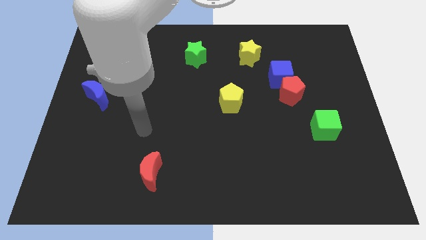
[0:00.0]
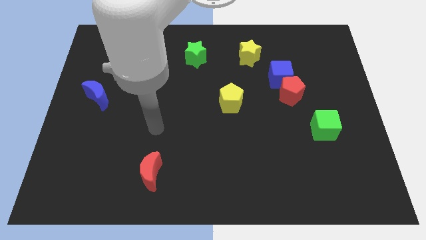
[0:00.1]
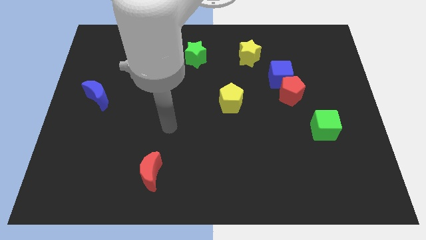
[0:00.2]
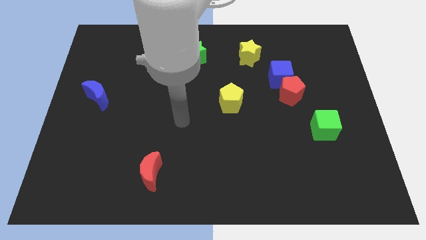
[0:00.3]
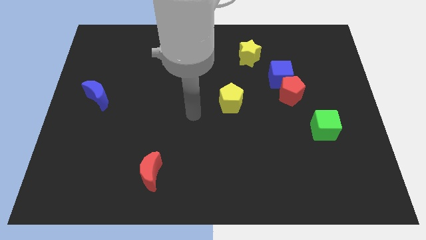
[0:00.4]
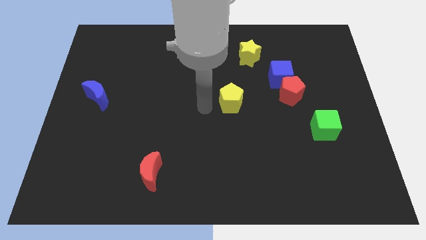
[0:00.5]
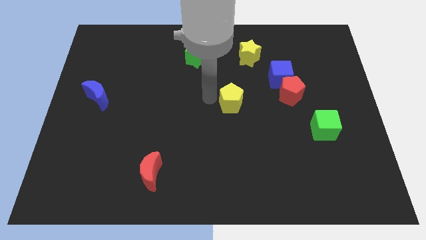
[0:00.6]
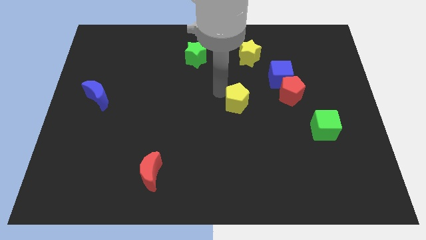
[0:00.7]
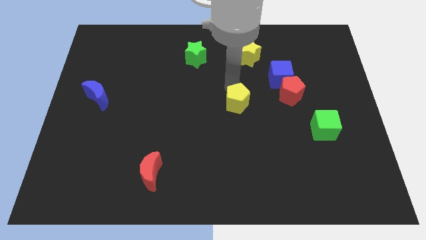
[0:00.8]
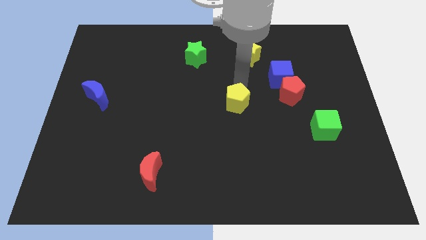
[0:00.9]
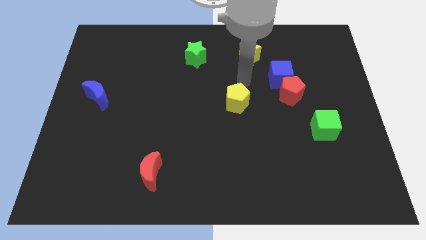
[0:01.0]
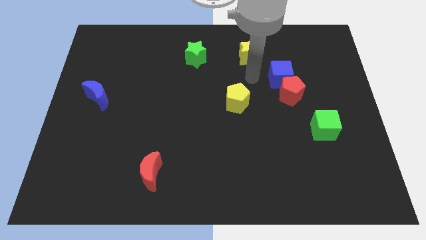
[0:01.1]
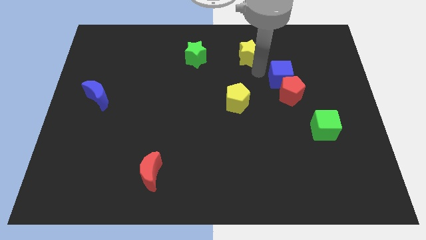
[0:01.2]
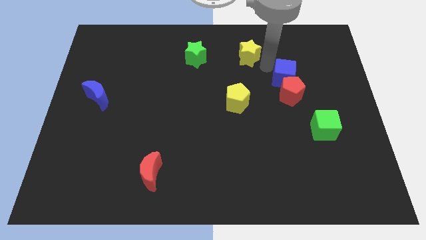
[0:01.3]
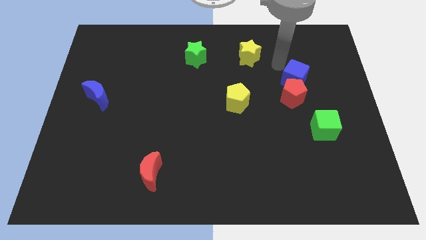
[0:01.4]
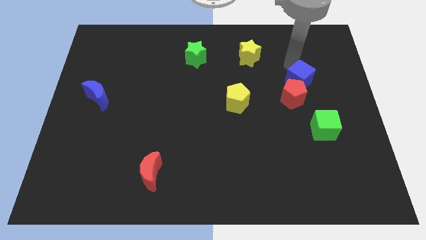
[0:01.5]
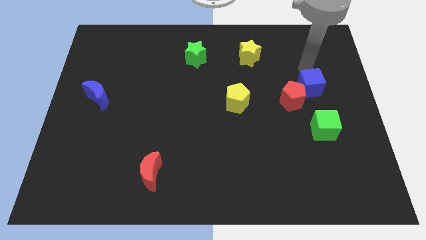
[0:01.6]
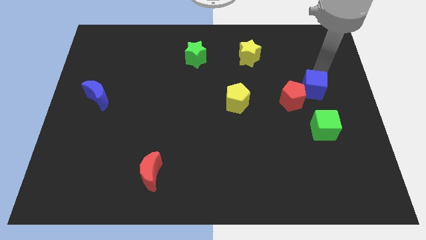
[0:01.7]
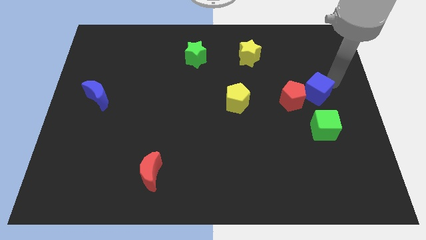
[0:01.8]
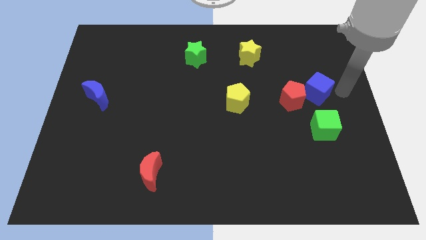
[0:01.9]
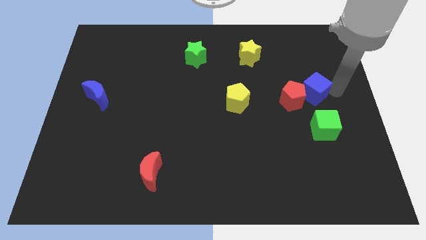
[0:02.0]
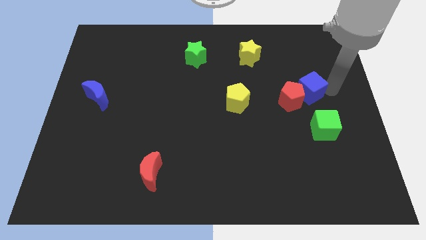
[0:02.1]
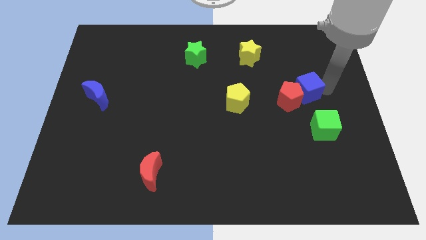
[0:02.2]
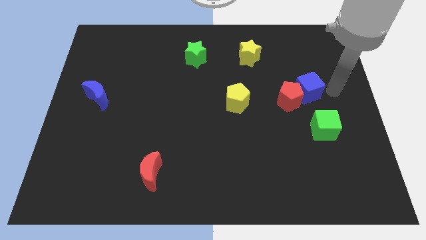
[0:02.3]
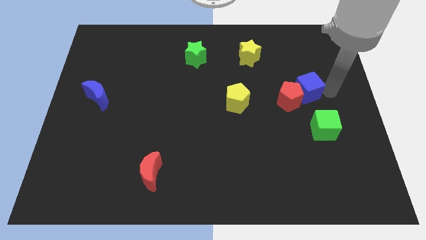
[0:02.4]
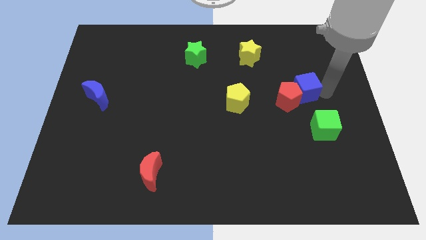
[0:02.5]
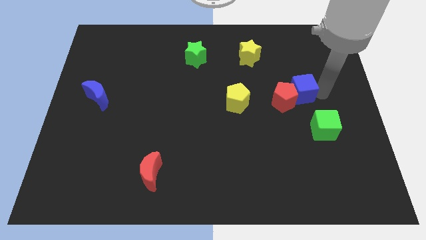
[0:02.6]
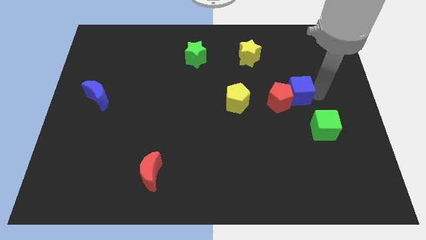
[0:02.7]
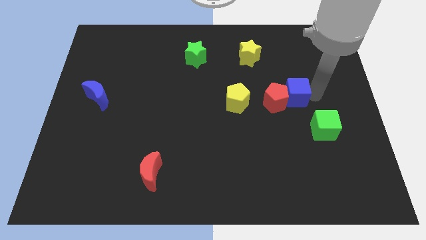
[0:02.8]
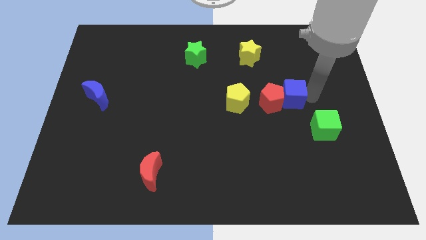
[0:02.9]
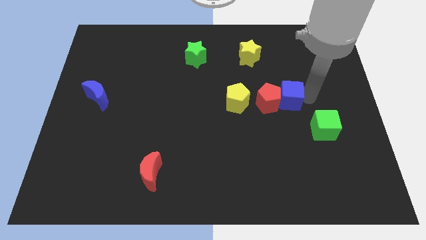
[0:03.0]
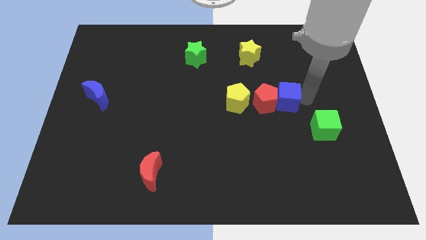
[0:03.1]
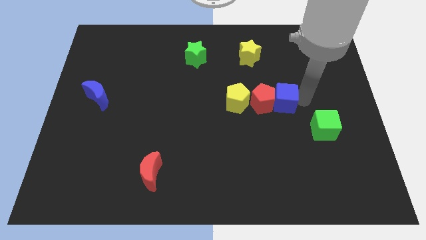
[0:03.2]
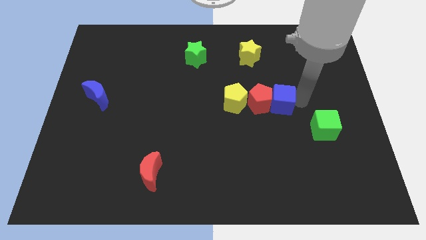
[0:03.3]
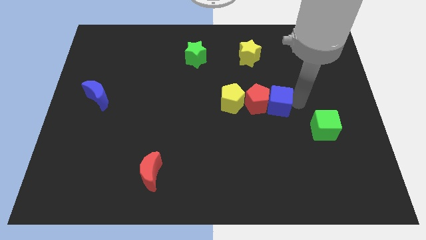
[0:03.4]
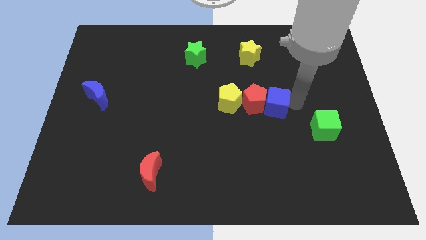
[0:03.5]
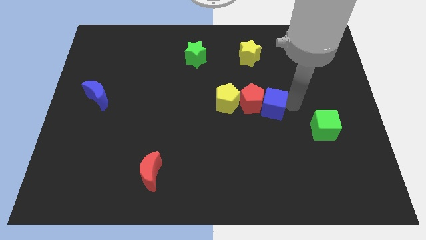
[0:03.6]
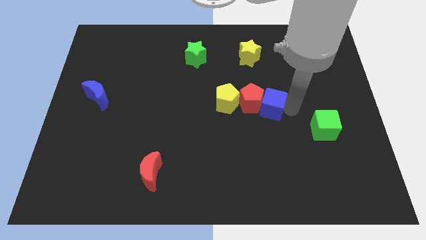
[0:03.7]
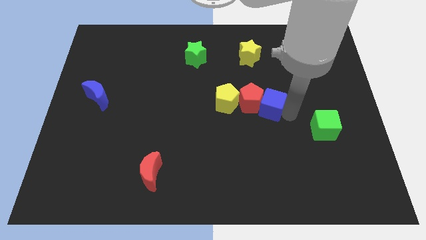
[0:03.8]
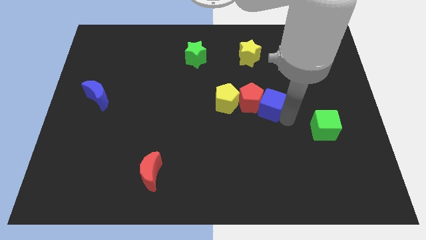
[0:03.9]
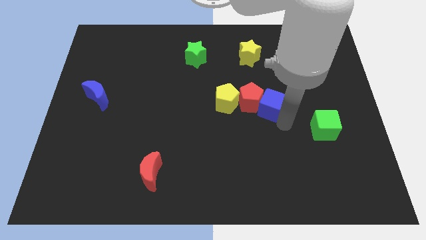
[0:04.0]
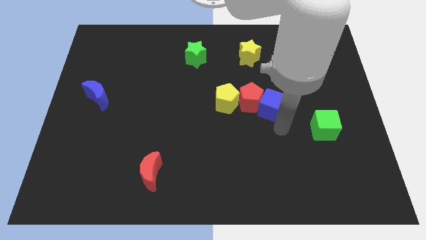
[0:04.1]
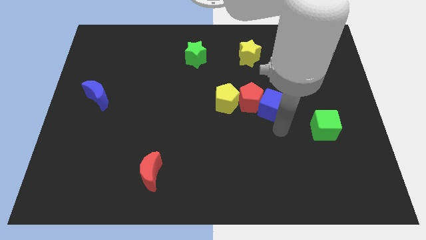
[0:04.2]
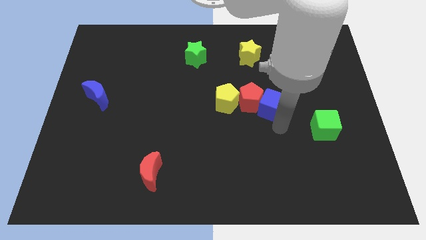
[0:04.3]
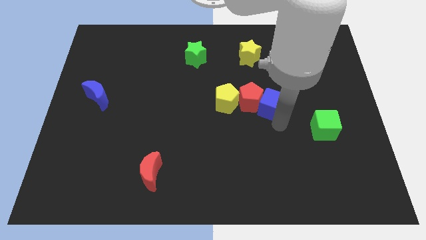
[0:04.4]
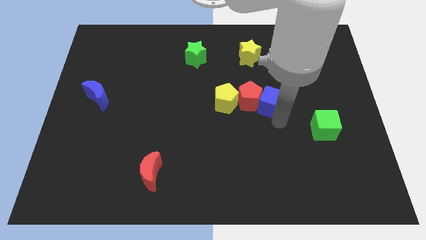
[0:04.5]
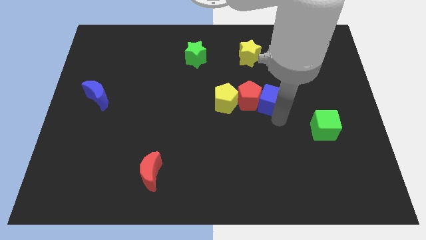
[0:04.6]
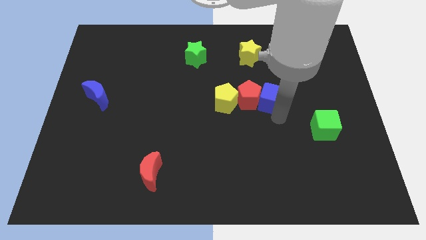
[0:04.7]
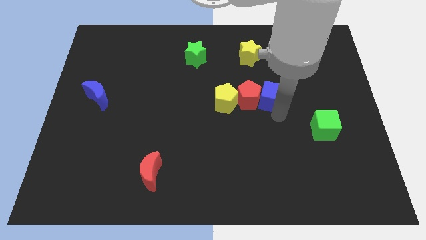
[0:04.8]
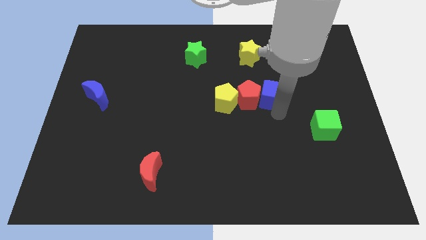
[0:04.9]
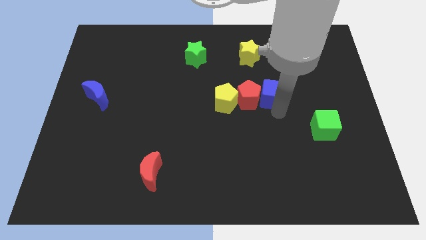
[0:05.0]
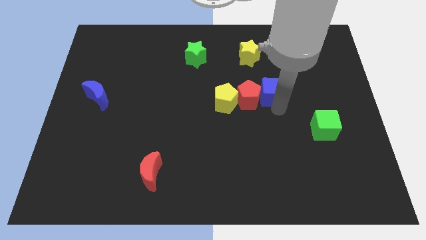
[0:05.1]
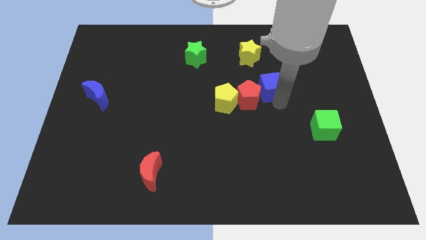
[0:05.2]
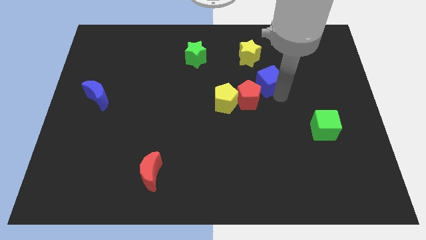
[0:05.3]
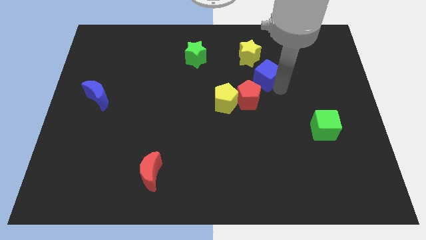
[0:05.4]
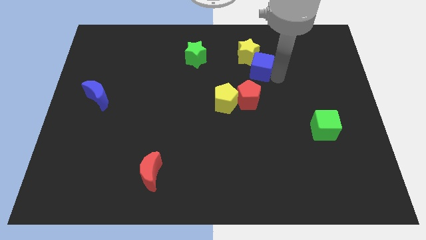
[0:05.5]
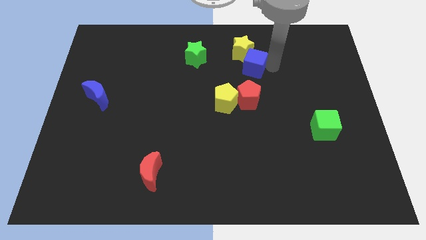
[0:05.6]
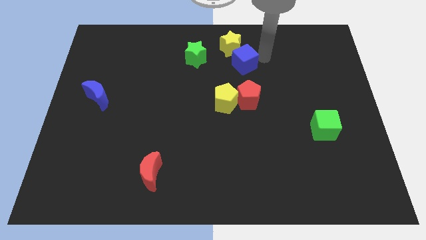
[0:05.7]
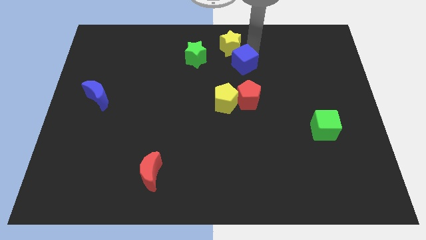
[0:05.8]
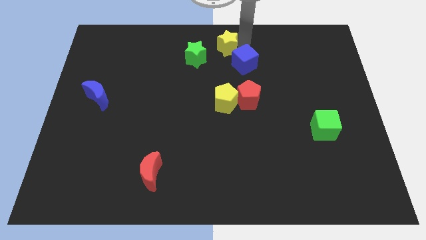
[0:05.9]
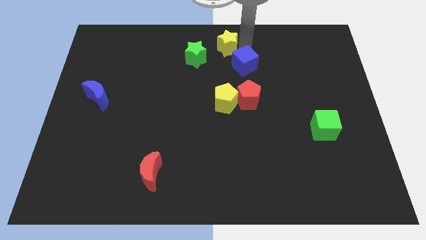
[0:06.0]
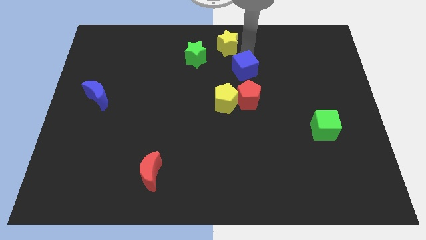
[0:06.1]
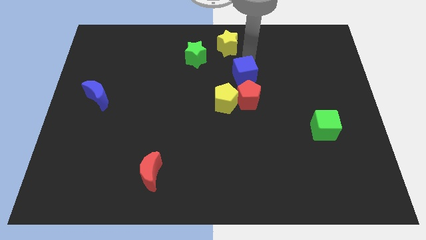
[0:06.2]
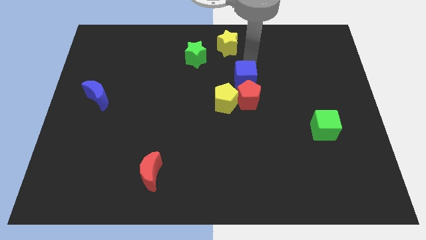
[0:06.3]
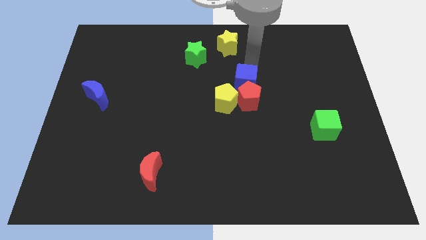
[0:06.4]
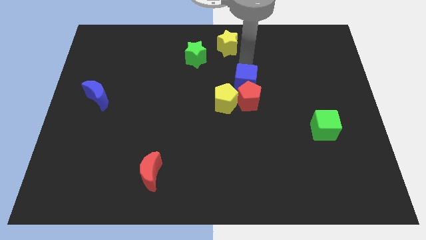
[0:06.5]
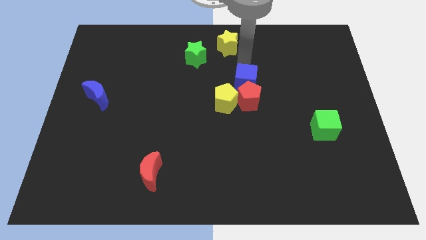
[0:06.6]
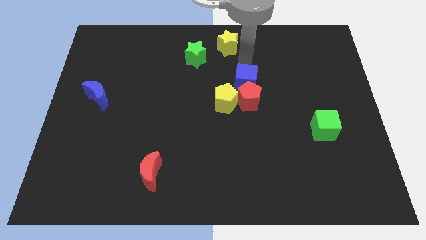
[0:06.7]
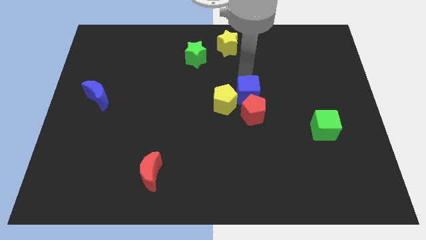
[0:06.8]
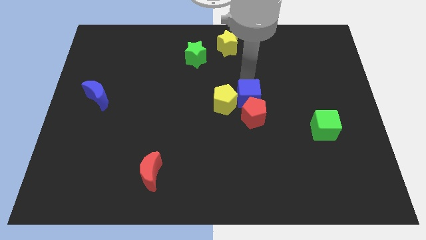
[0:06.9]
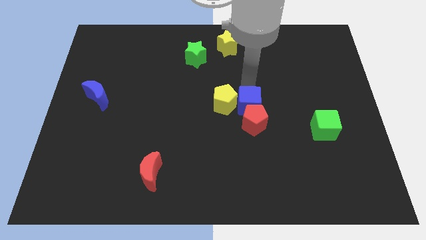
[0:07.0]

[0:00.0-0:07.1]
push the blue cube diagonally down and to the right of the yellow pentagon
